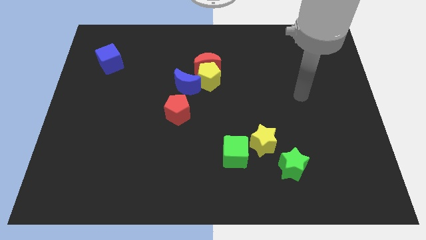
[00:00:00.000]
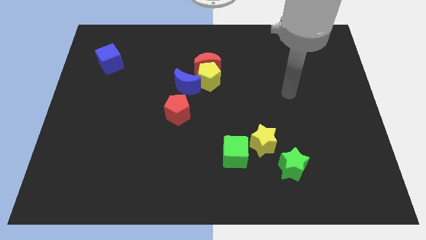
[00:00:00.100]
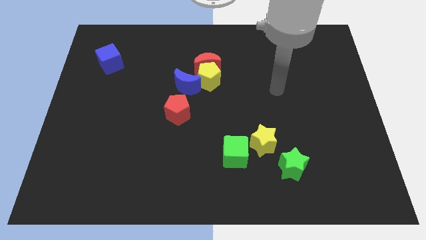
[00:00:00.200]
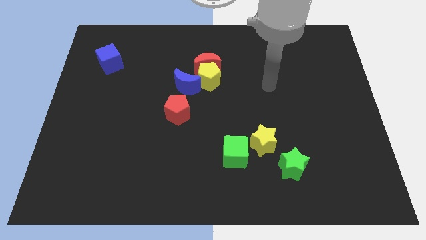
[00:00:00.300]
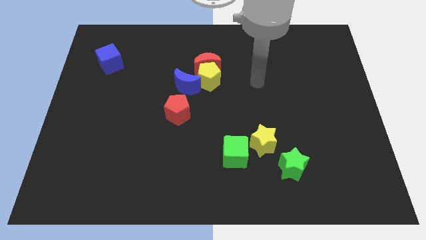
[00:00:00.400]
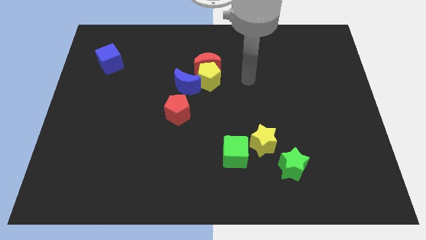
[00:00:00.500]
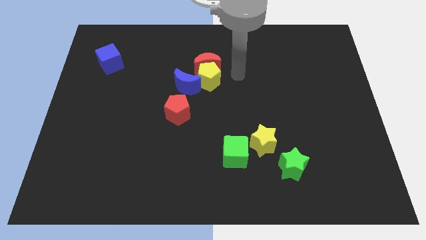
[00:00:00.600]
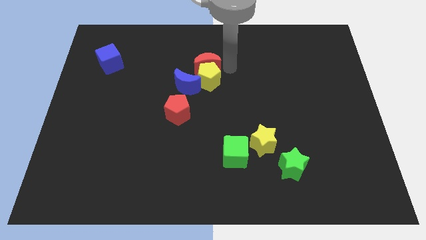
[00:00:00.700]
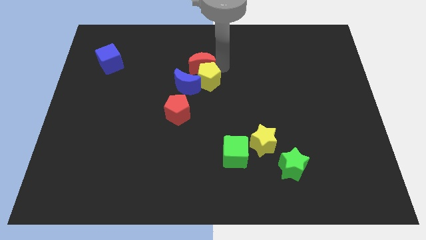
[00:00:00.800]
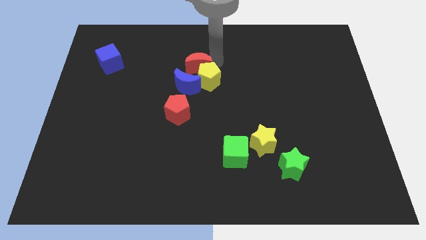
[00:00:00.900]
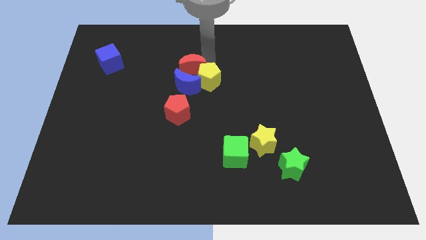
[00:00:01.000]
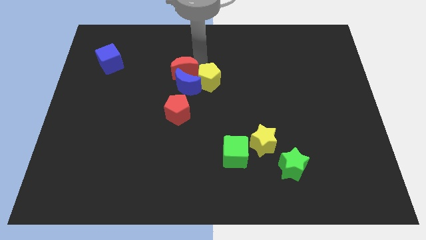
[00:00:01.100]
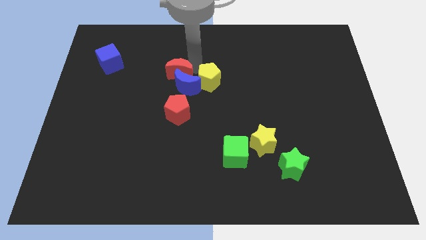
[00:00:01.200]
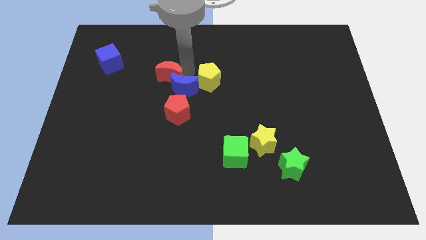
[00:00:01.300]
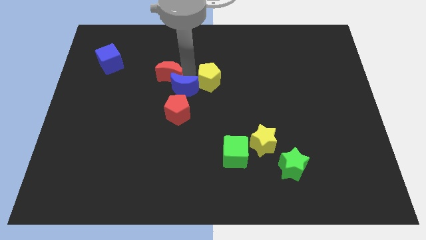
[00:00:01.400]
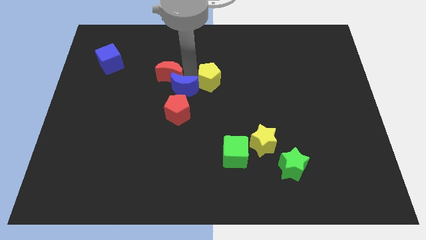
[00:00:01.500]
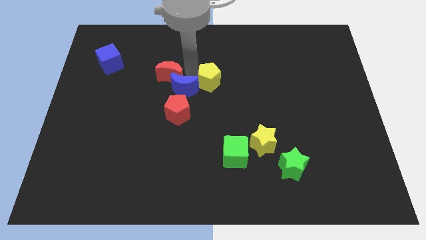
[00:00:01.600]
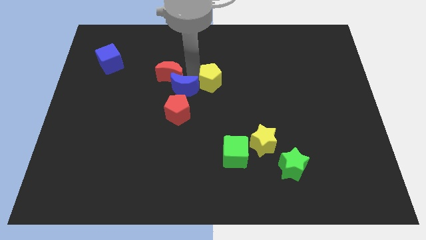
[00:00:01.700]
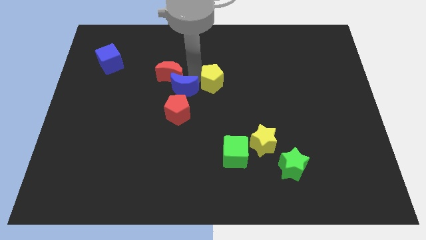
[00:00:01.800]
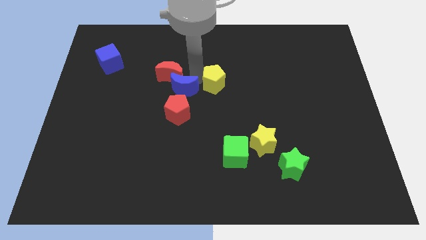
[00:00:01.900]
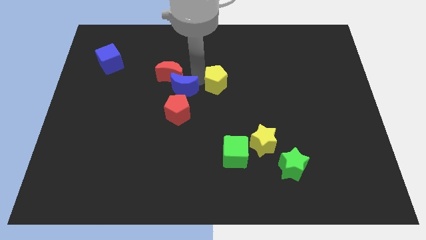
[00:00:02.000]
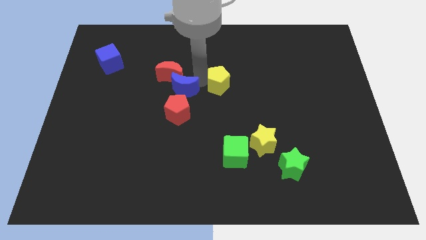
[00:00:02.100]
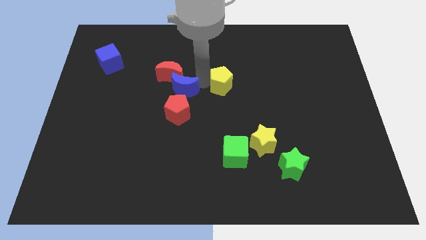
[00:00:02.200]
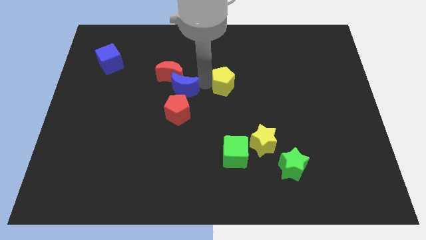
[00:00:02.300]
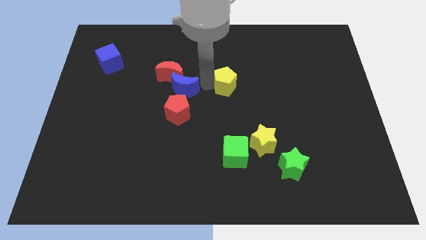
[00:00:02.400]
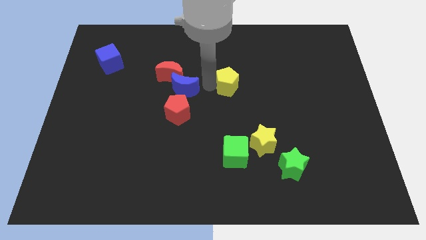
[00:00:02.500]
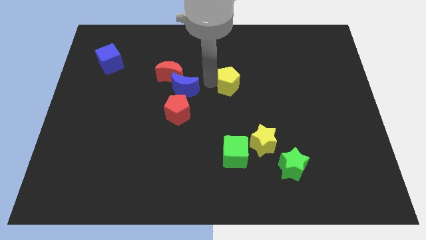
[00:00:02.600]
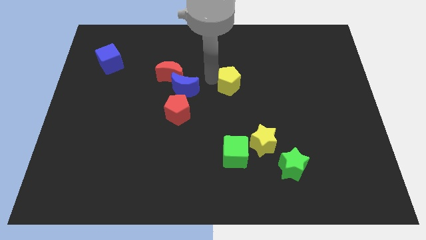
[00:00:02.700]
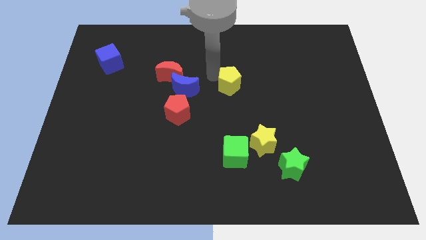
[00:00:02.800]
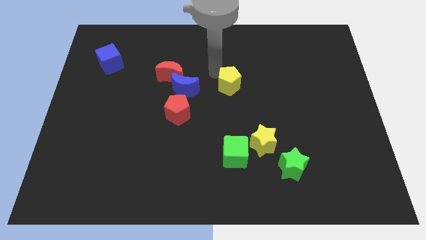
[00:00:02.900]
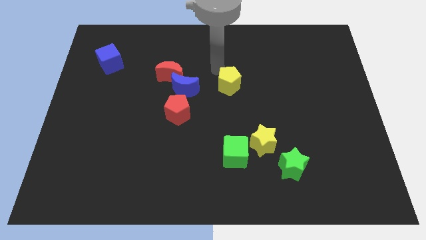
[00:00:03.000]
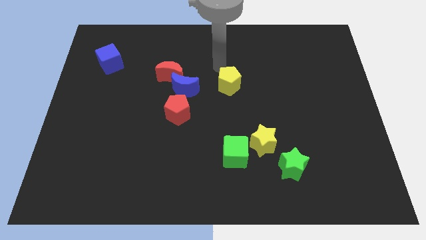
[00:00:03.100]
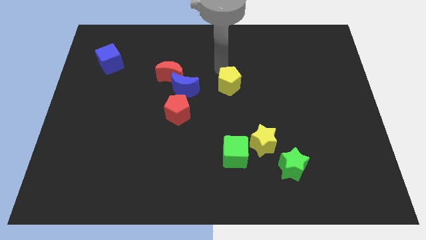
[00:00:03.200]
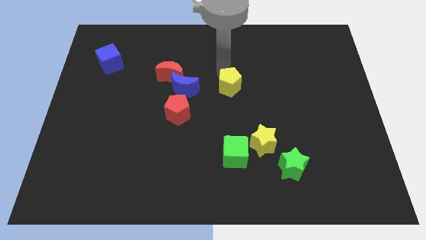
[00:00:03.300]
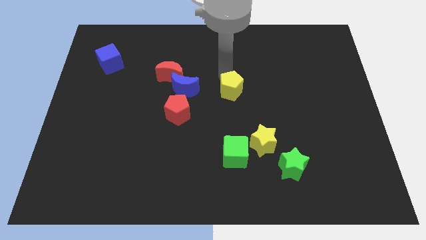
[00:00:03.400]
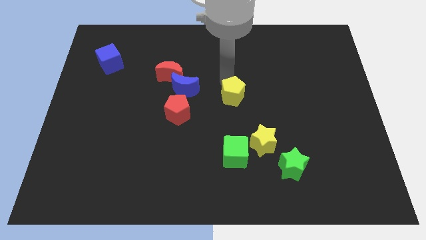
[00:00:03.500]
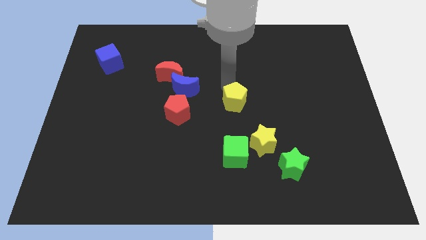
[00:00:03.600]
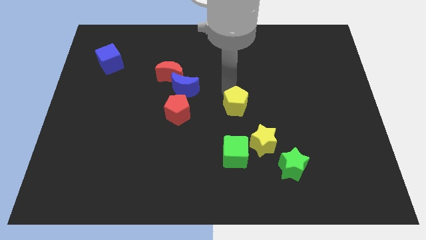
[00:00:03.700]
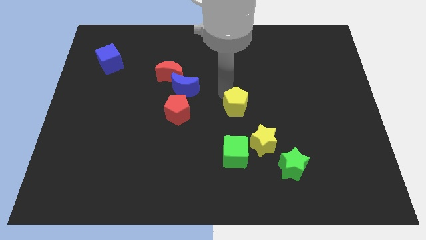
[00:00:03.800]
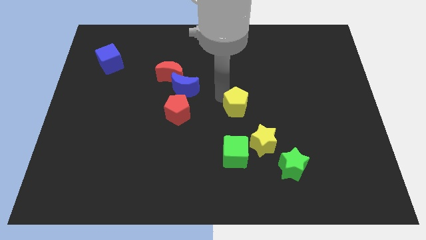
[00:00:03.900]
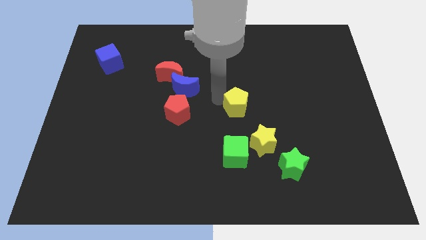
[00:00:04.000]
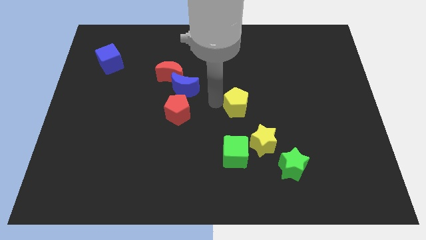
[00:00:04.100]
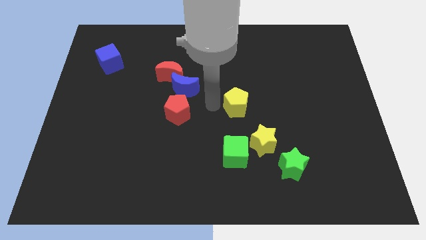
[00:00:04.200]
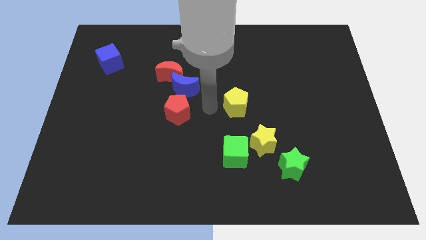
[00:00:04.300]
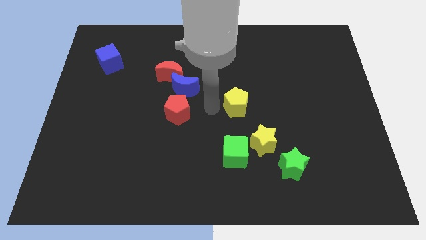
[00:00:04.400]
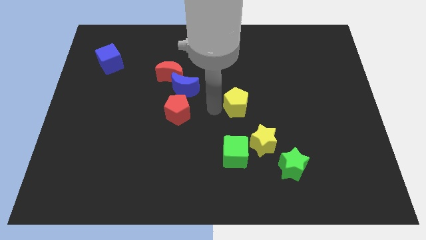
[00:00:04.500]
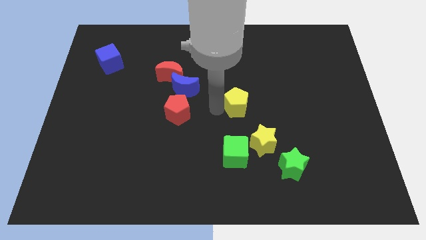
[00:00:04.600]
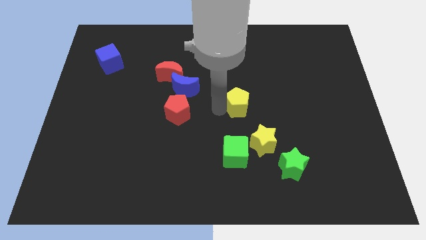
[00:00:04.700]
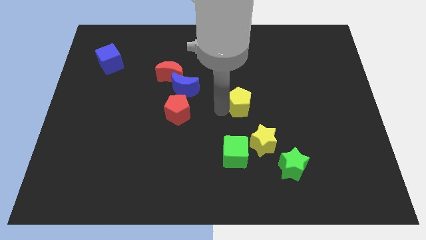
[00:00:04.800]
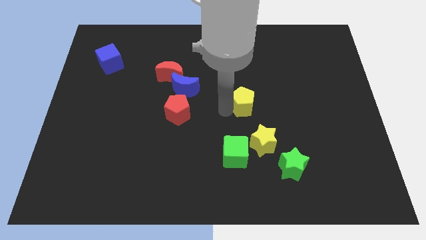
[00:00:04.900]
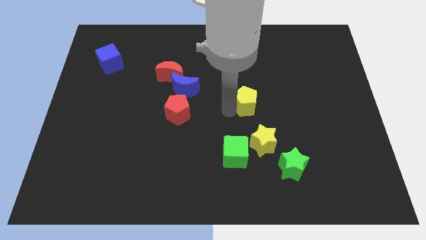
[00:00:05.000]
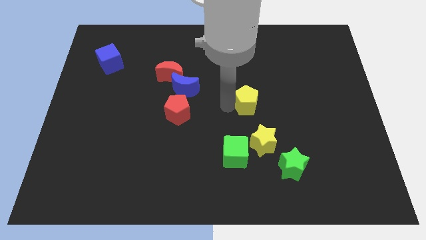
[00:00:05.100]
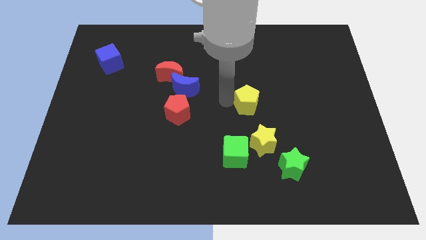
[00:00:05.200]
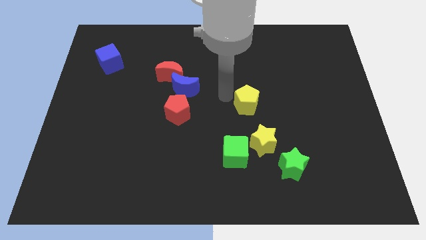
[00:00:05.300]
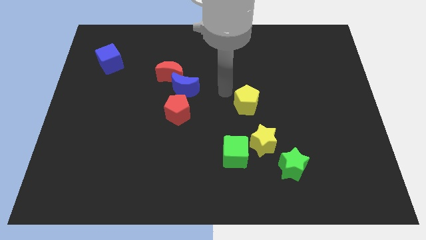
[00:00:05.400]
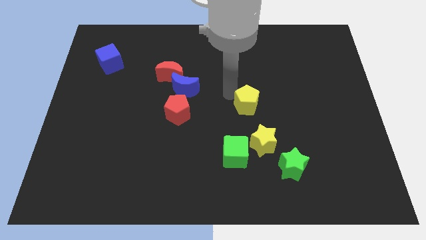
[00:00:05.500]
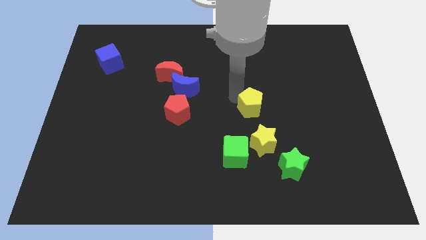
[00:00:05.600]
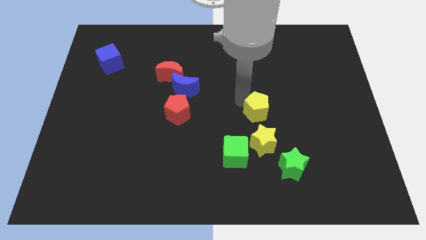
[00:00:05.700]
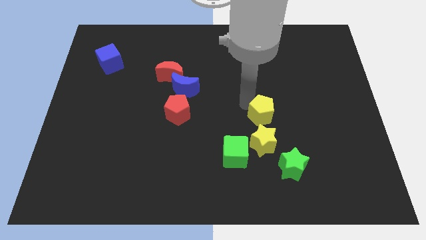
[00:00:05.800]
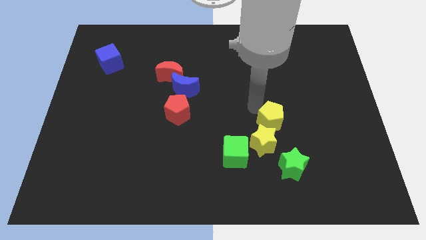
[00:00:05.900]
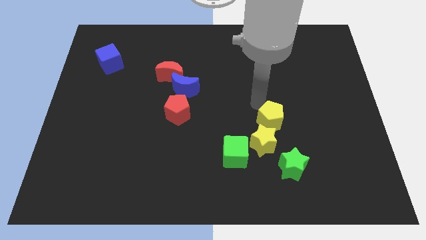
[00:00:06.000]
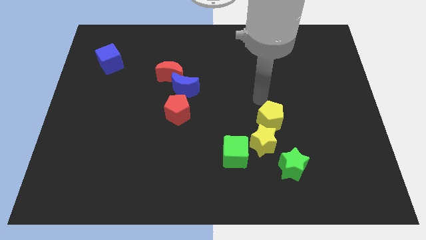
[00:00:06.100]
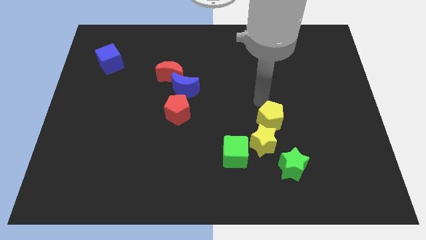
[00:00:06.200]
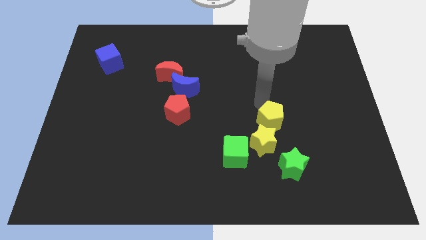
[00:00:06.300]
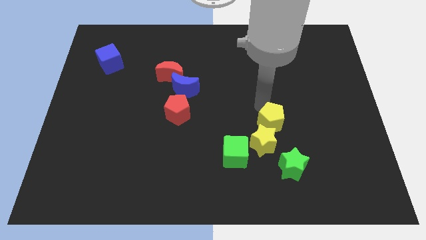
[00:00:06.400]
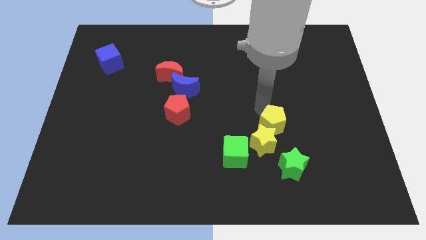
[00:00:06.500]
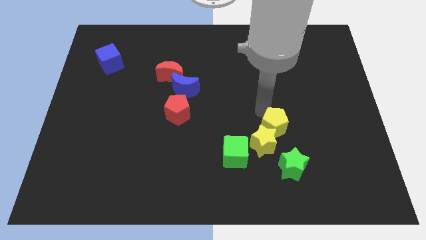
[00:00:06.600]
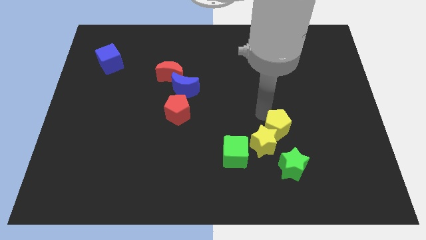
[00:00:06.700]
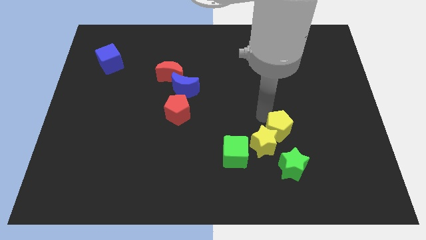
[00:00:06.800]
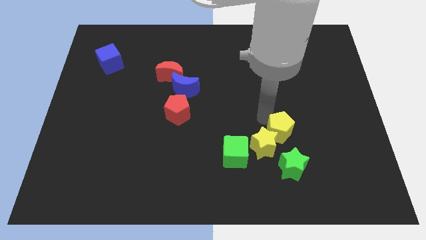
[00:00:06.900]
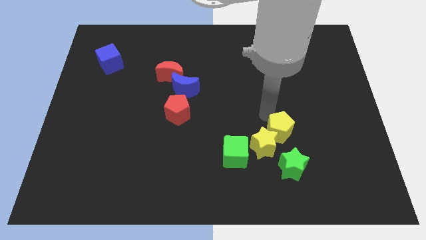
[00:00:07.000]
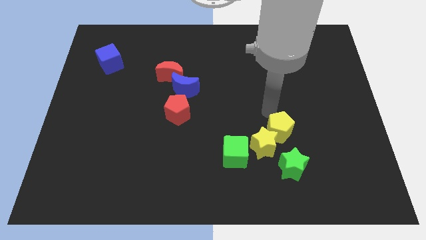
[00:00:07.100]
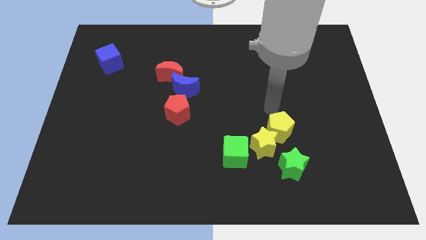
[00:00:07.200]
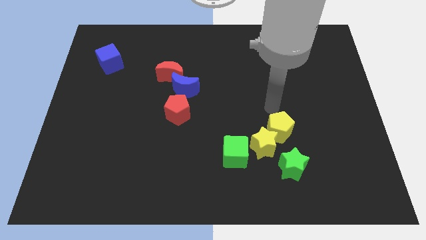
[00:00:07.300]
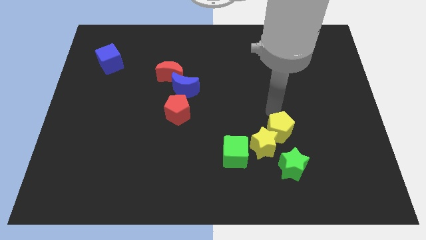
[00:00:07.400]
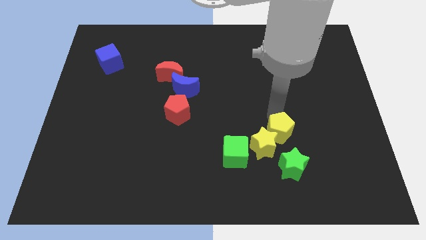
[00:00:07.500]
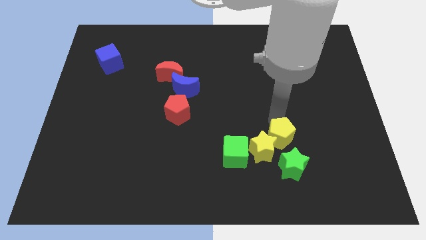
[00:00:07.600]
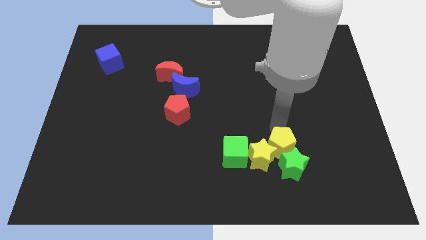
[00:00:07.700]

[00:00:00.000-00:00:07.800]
slide the yellow pentagon next to the green star
